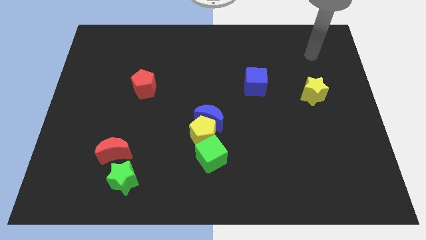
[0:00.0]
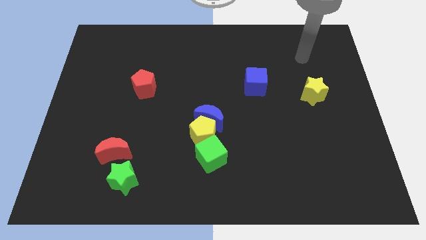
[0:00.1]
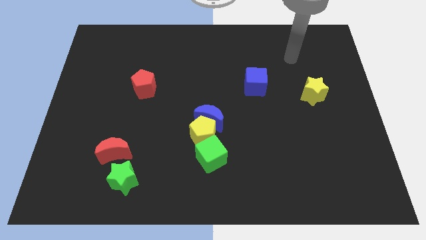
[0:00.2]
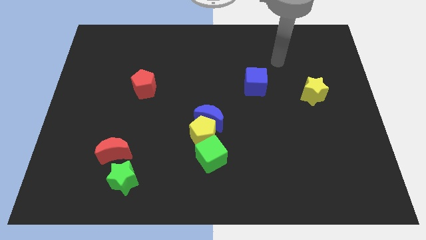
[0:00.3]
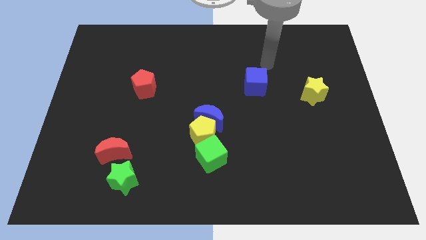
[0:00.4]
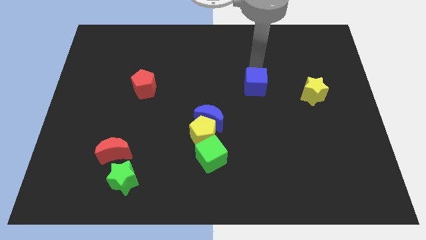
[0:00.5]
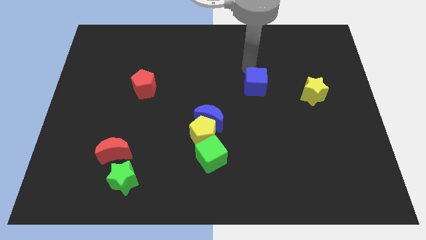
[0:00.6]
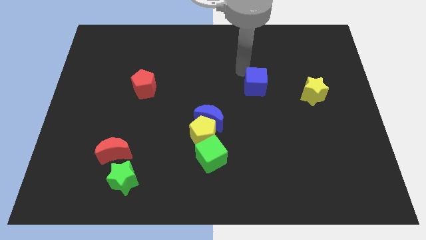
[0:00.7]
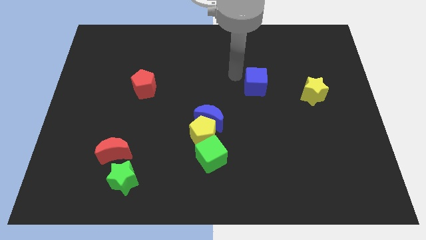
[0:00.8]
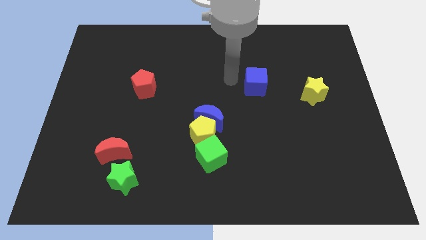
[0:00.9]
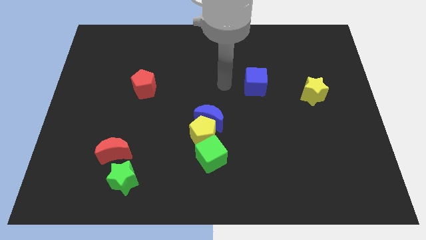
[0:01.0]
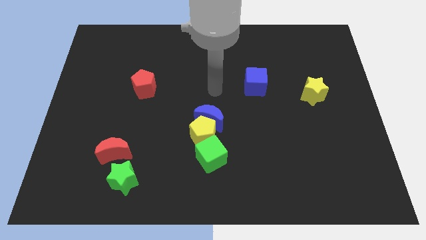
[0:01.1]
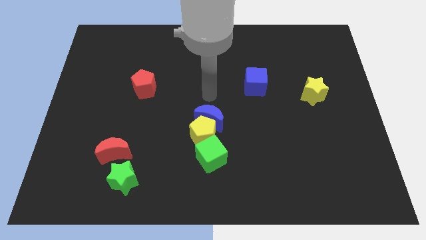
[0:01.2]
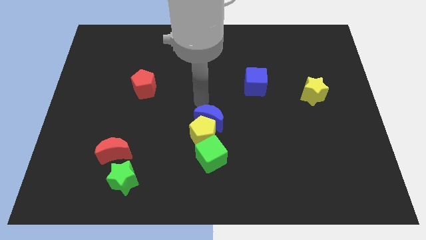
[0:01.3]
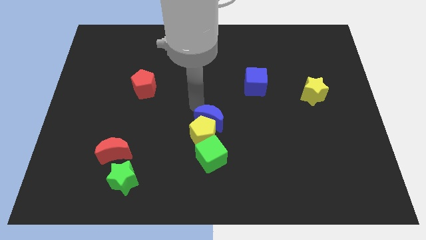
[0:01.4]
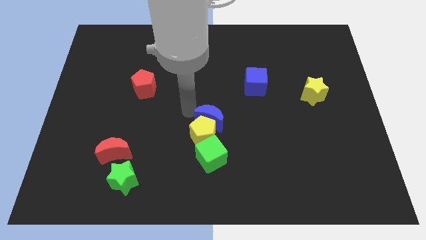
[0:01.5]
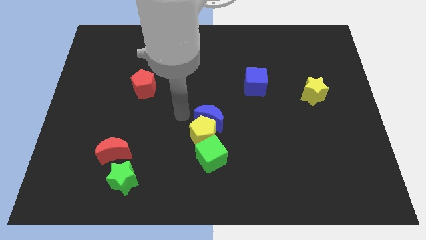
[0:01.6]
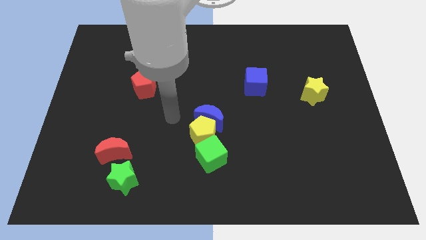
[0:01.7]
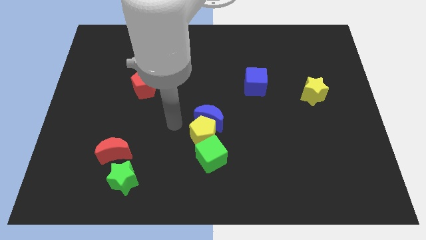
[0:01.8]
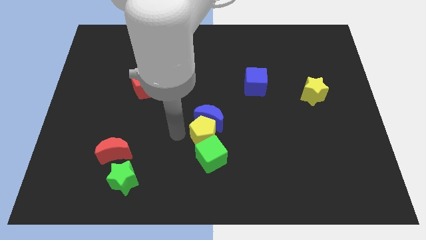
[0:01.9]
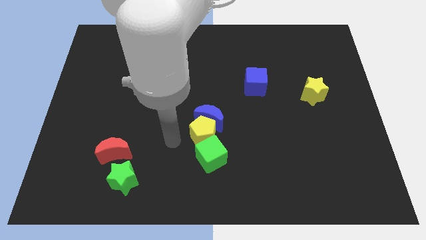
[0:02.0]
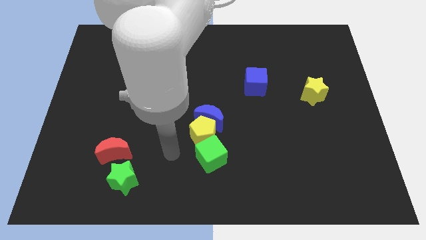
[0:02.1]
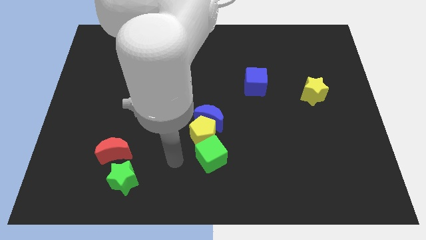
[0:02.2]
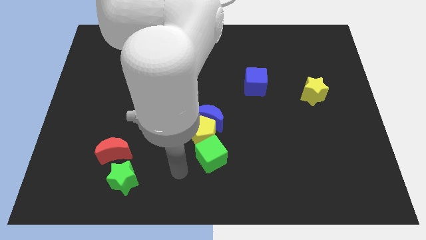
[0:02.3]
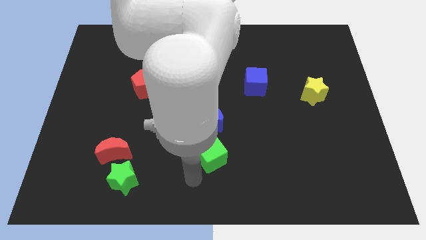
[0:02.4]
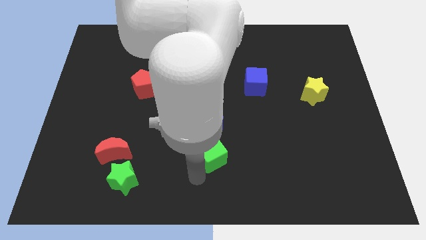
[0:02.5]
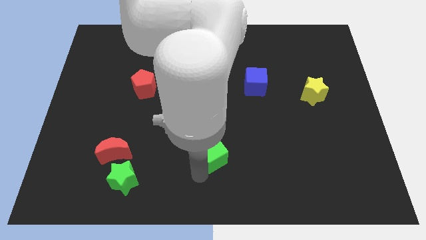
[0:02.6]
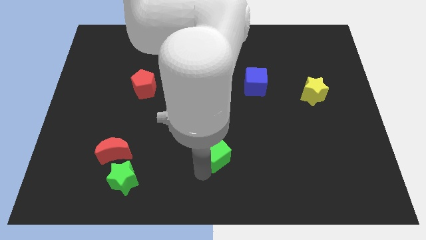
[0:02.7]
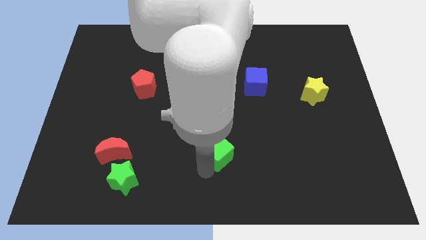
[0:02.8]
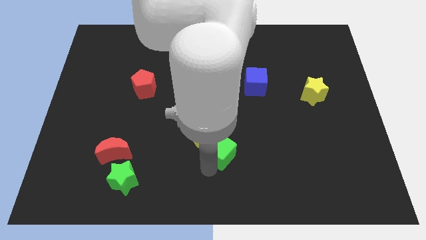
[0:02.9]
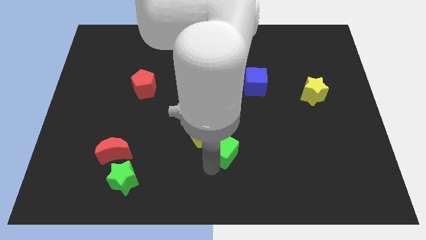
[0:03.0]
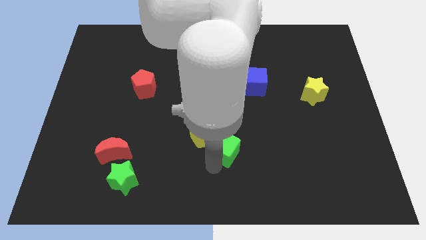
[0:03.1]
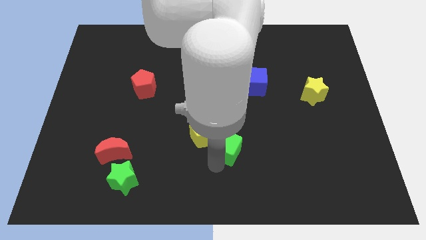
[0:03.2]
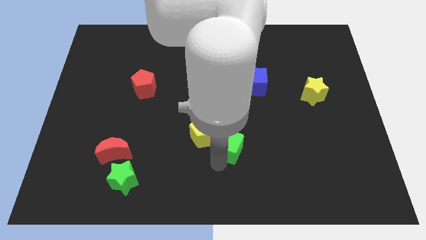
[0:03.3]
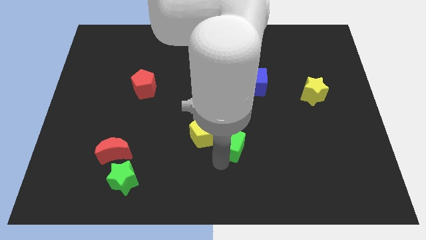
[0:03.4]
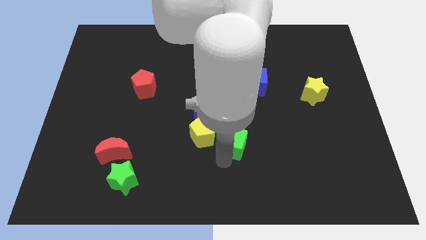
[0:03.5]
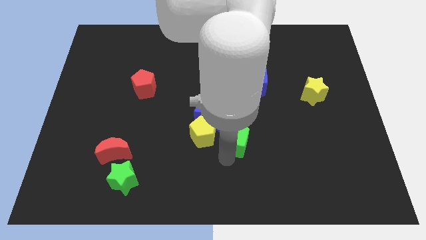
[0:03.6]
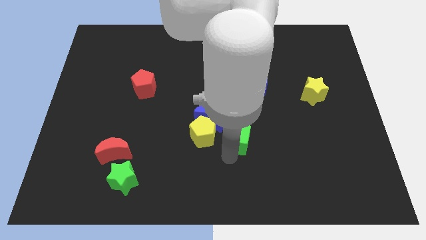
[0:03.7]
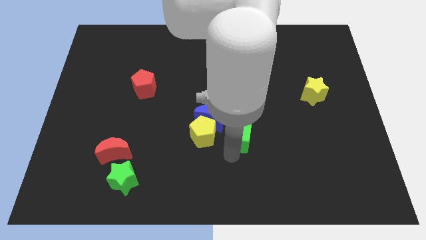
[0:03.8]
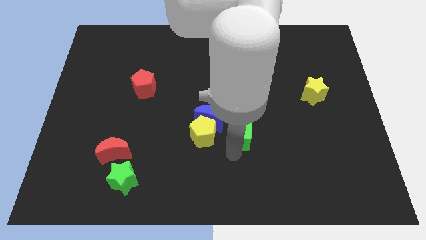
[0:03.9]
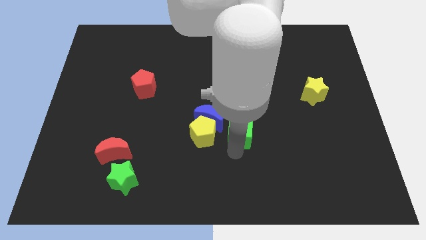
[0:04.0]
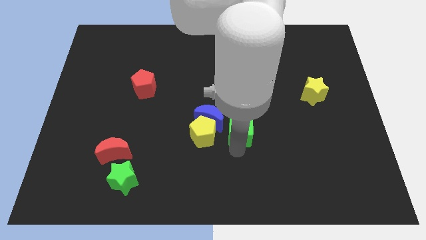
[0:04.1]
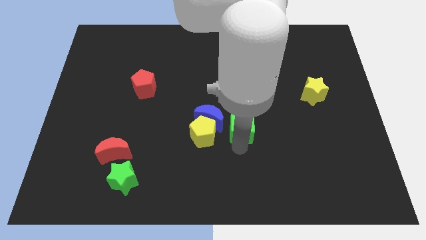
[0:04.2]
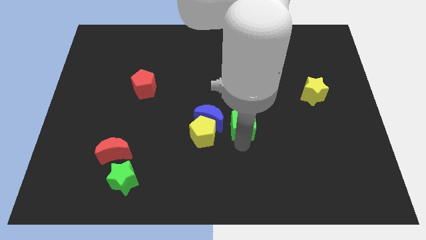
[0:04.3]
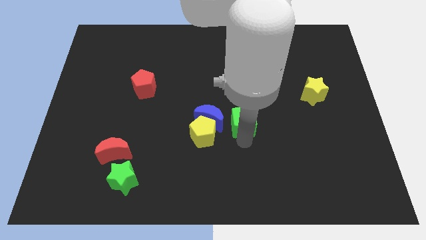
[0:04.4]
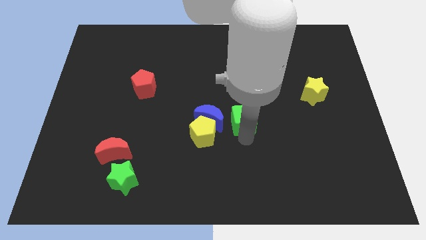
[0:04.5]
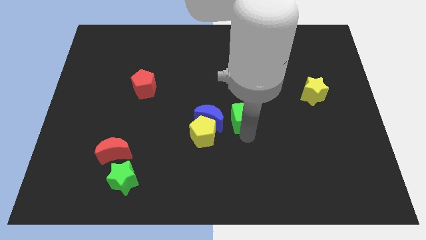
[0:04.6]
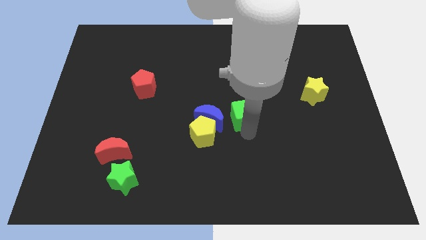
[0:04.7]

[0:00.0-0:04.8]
push the green cube to the bottom left of the blue cube

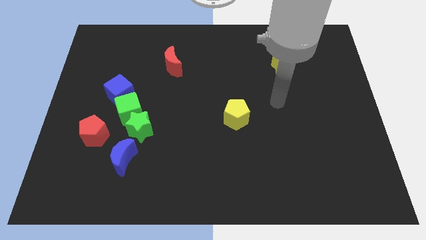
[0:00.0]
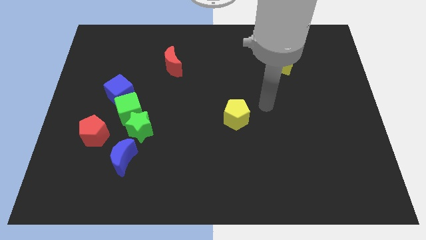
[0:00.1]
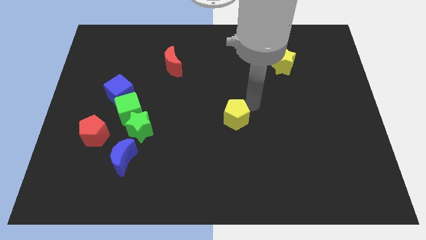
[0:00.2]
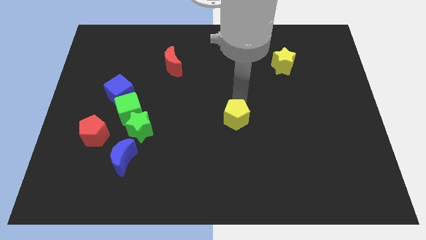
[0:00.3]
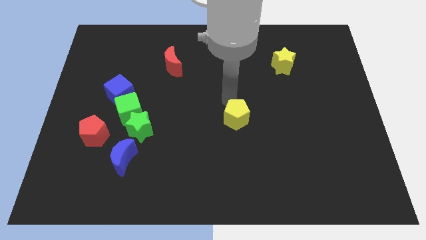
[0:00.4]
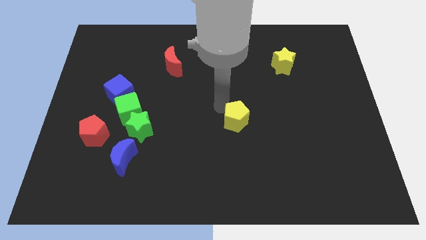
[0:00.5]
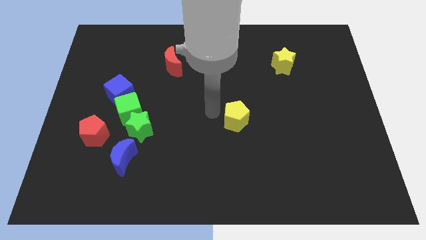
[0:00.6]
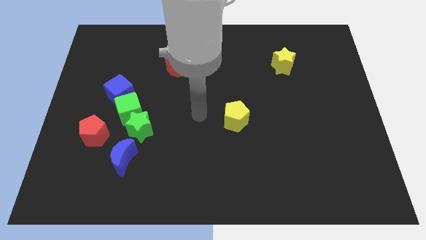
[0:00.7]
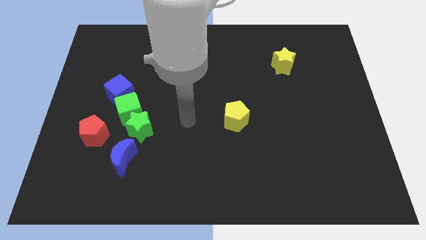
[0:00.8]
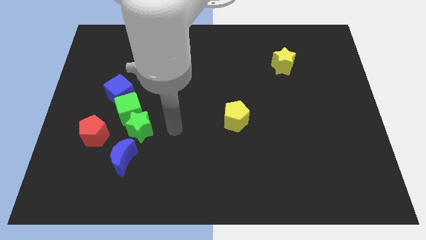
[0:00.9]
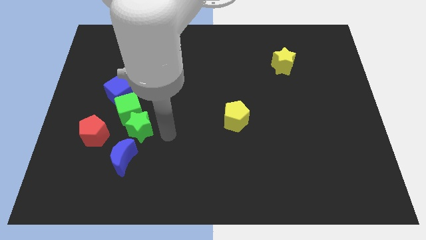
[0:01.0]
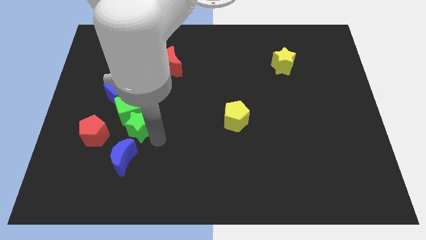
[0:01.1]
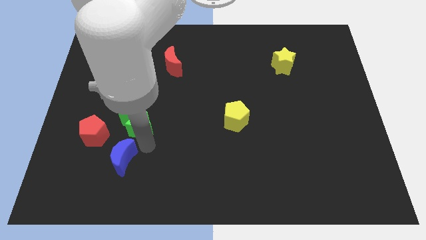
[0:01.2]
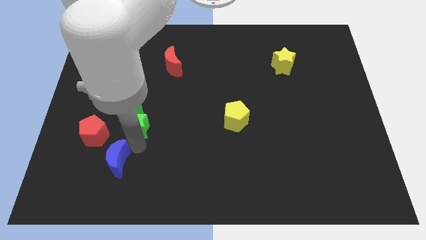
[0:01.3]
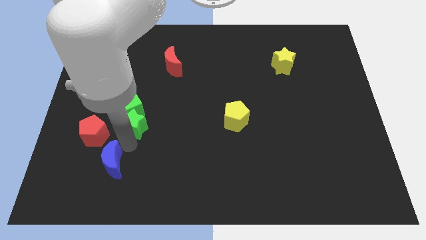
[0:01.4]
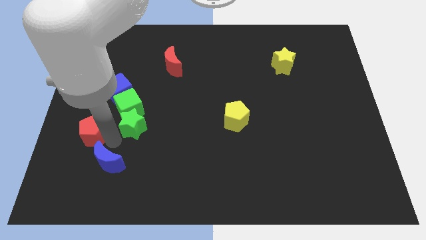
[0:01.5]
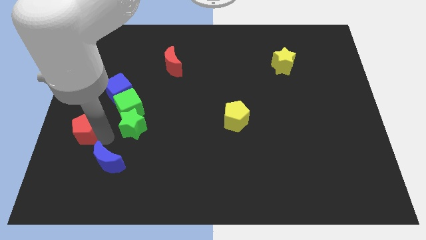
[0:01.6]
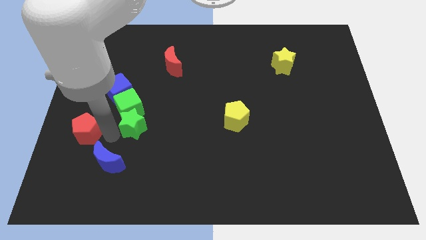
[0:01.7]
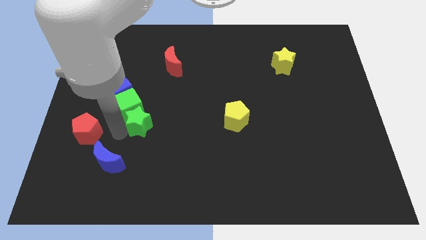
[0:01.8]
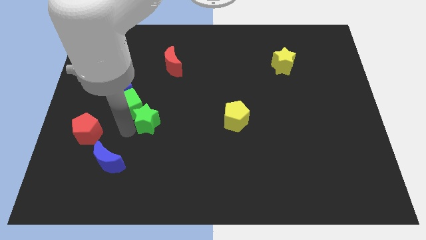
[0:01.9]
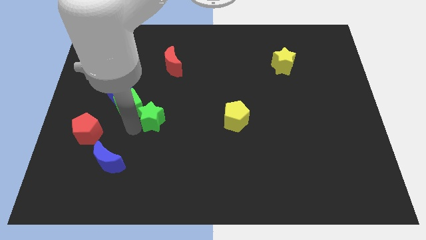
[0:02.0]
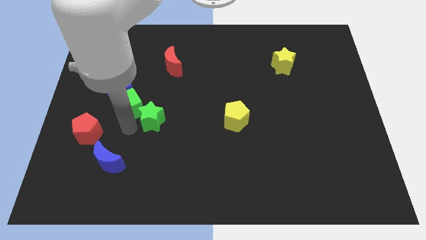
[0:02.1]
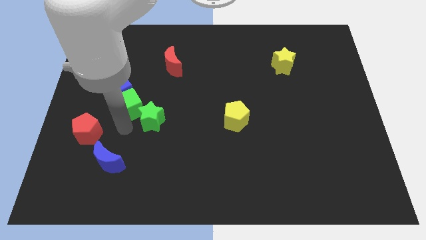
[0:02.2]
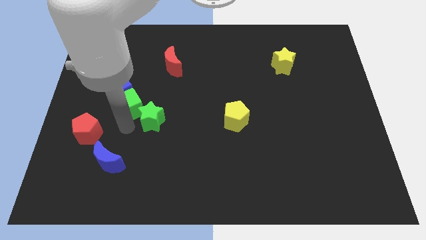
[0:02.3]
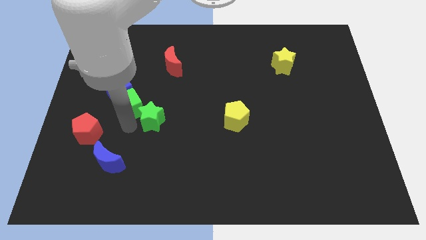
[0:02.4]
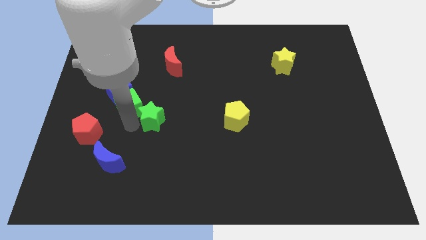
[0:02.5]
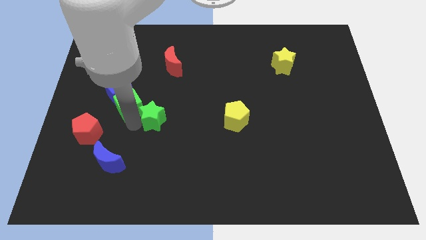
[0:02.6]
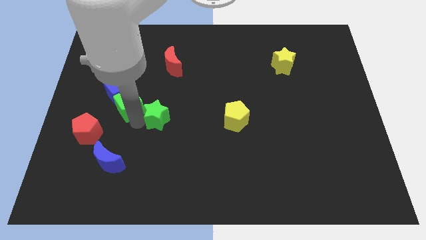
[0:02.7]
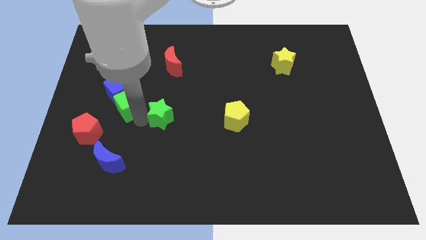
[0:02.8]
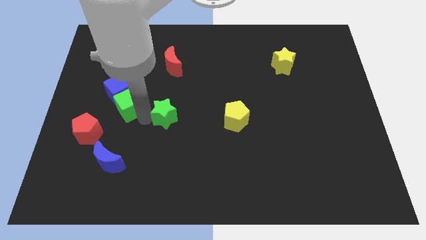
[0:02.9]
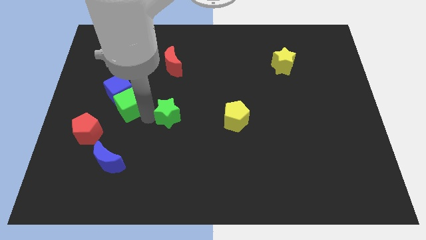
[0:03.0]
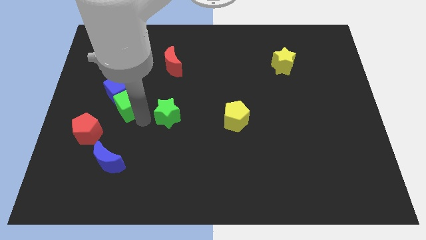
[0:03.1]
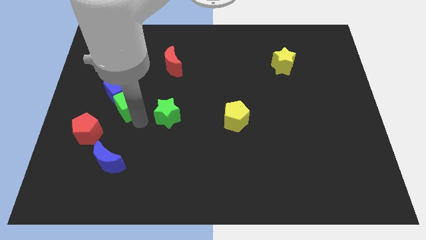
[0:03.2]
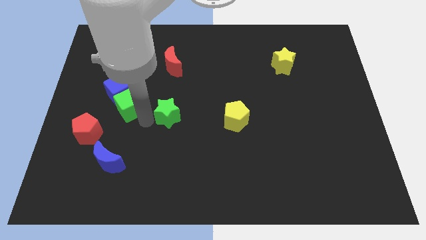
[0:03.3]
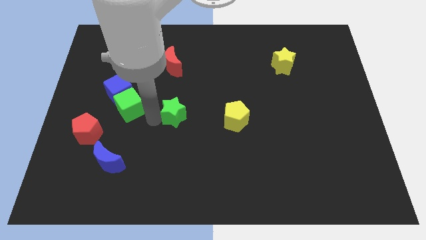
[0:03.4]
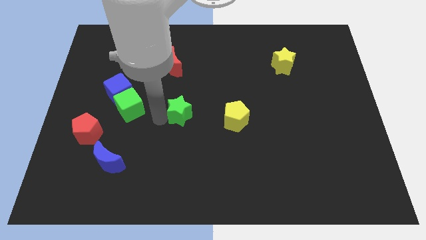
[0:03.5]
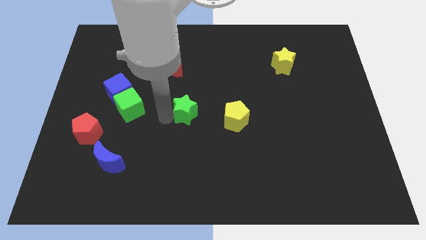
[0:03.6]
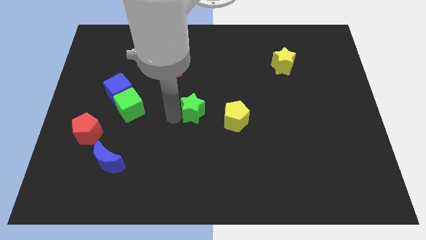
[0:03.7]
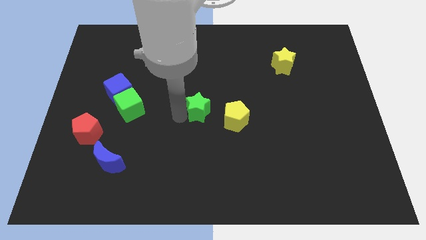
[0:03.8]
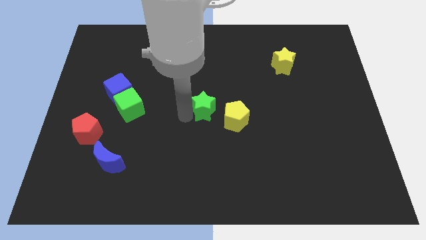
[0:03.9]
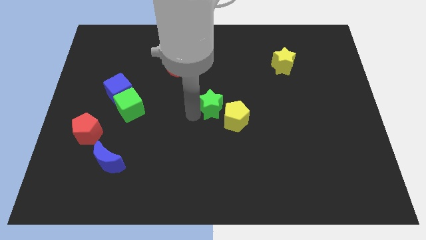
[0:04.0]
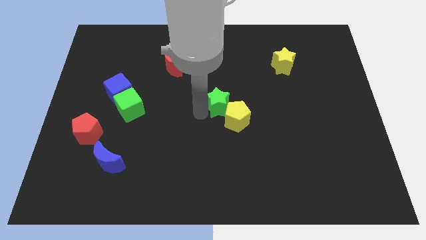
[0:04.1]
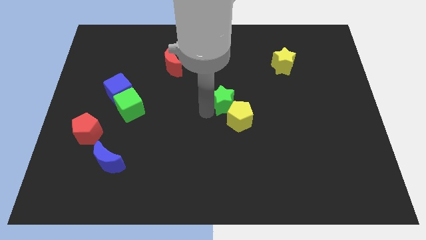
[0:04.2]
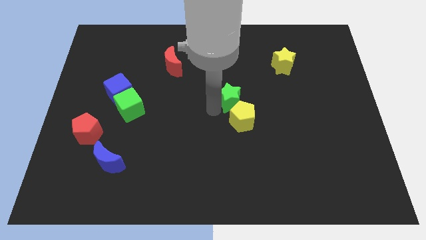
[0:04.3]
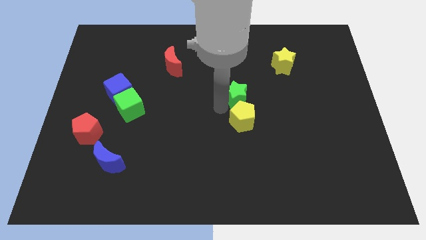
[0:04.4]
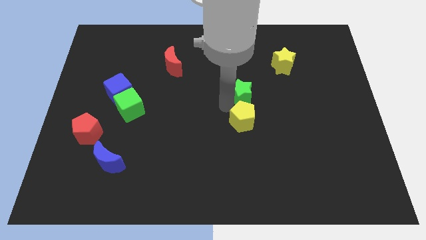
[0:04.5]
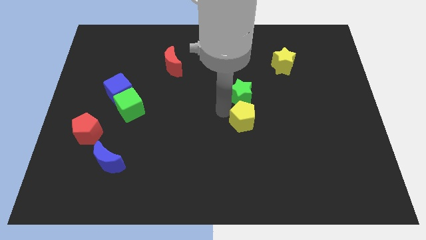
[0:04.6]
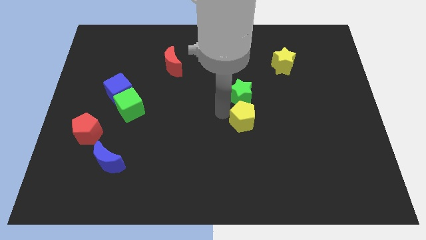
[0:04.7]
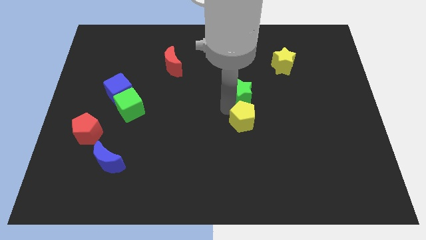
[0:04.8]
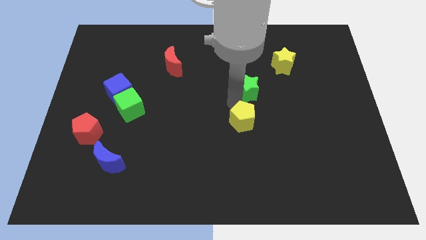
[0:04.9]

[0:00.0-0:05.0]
put the green star diagonally down and to the left of the yellow star
